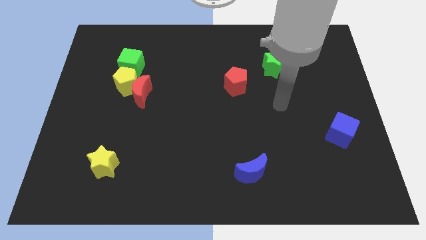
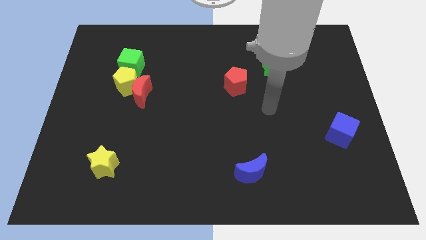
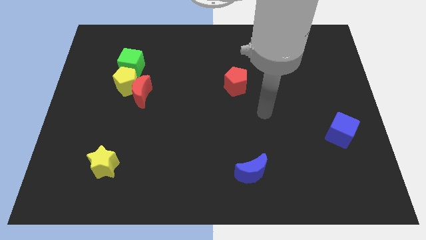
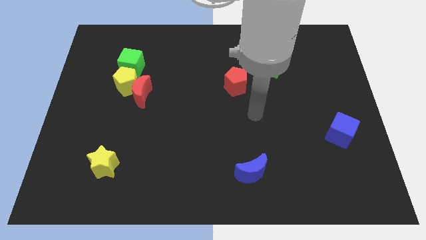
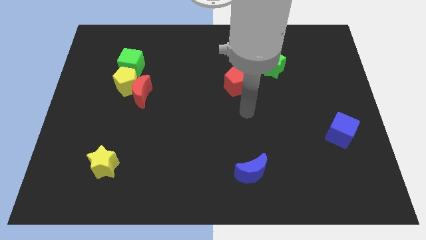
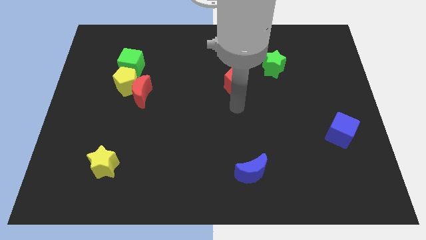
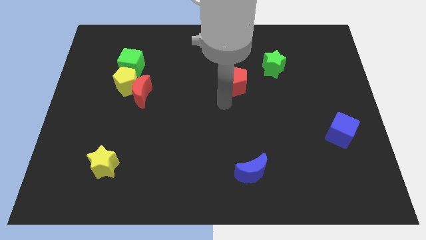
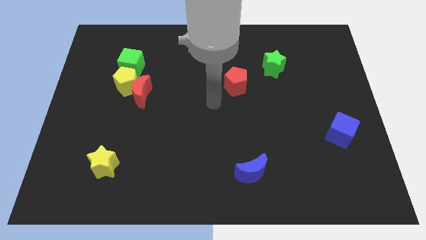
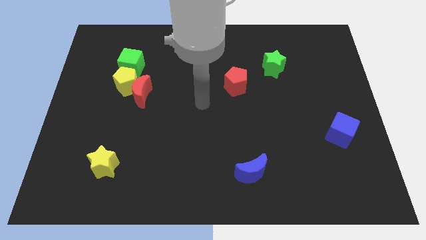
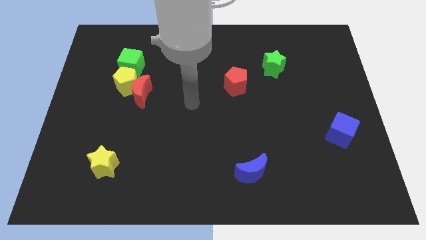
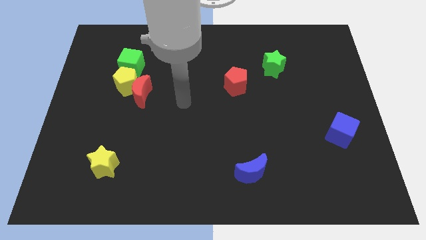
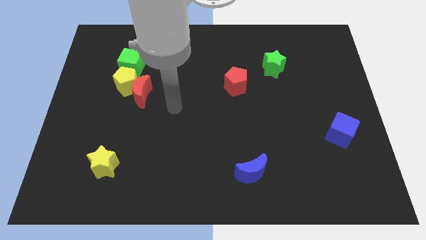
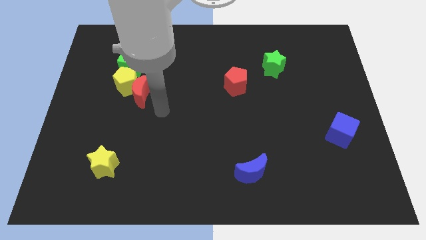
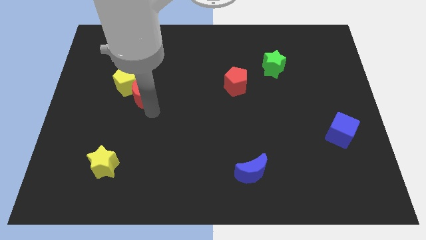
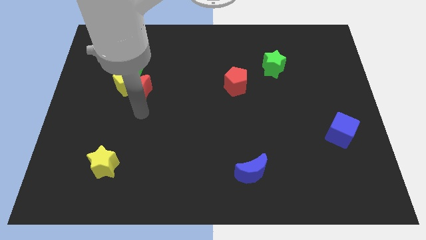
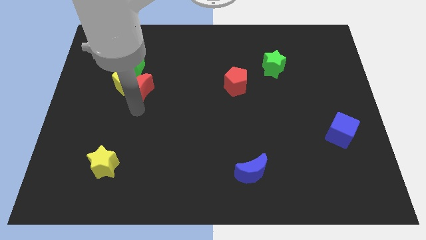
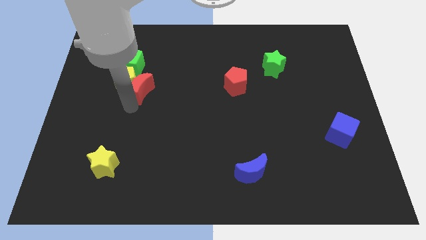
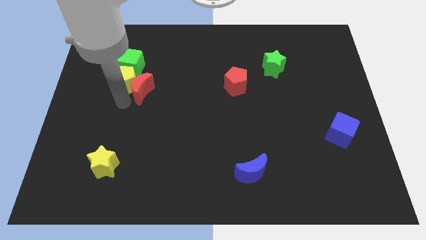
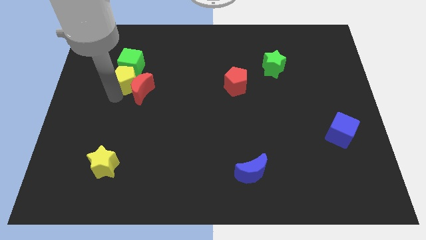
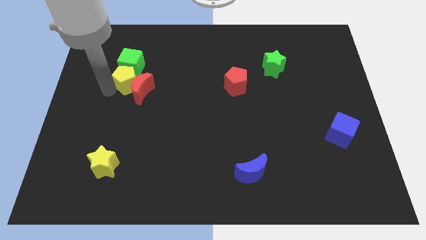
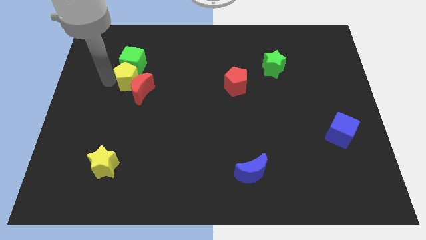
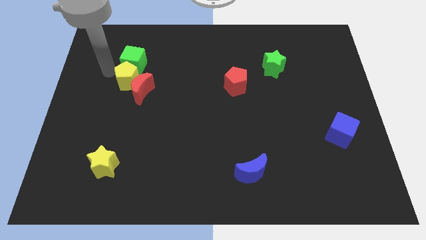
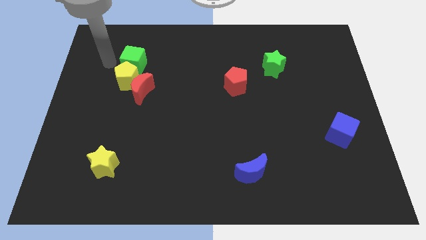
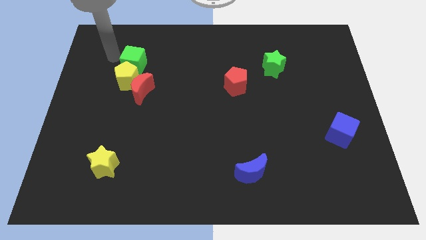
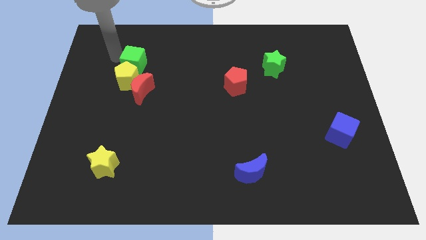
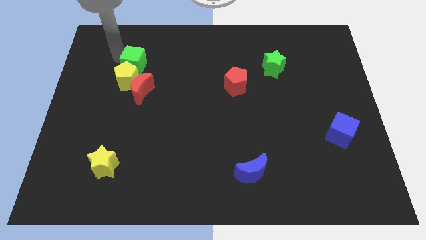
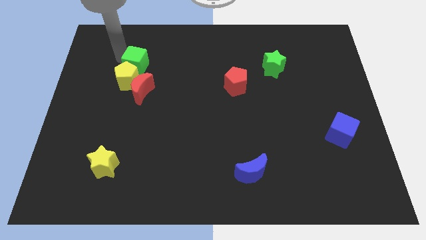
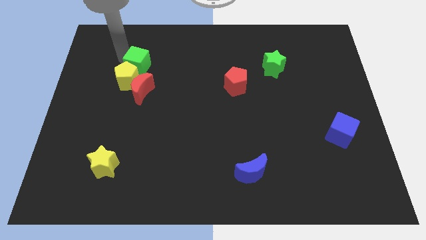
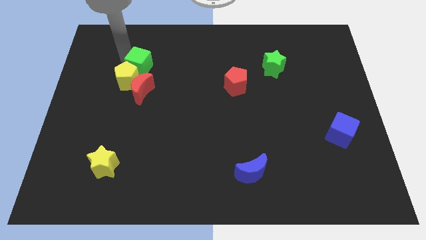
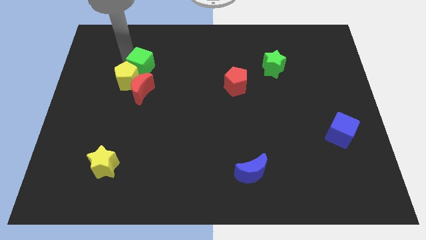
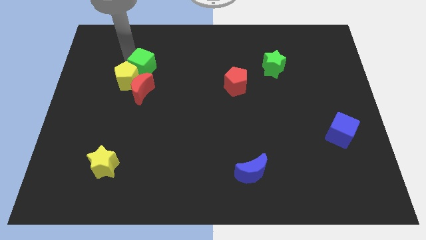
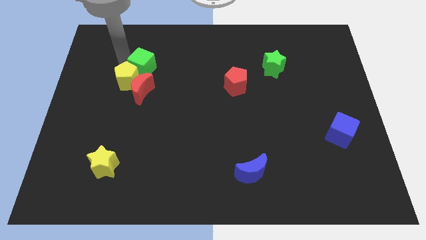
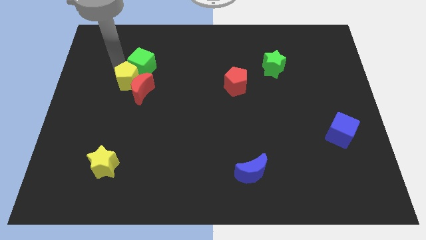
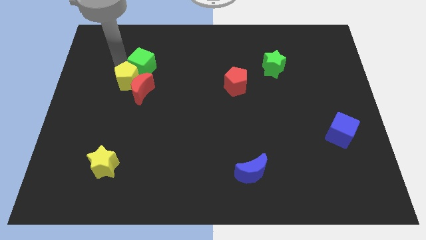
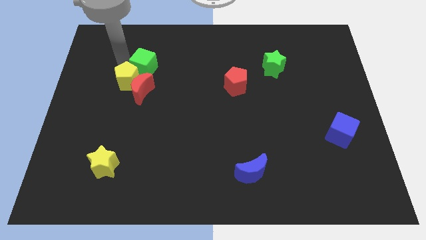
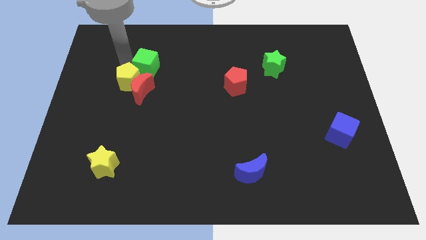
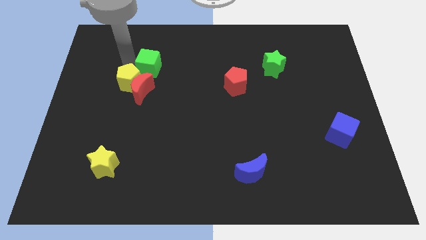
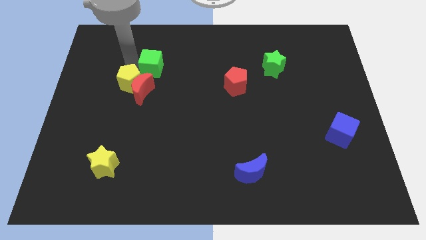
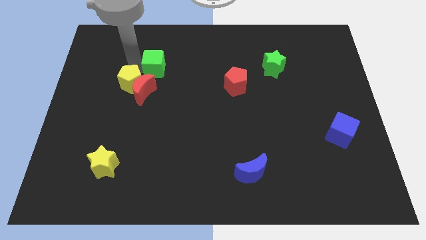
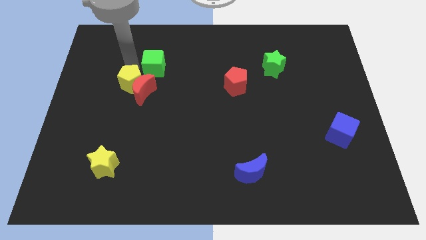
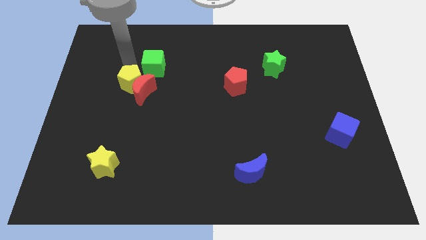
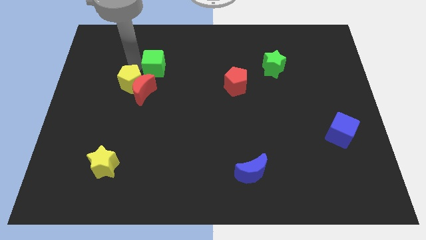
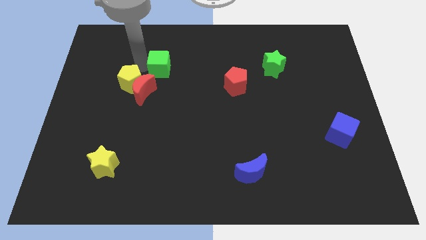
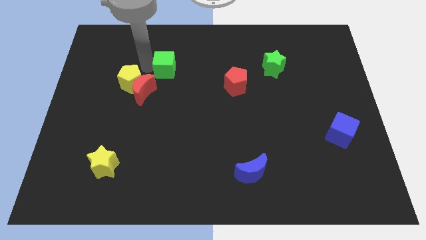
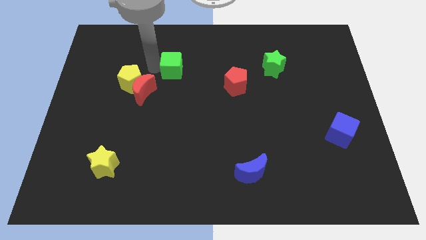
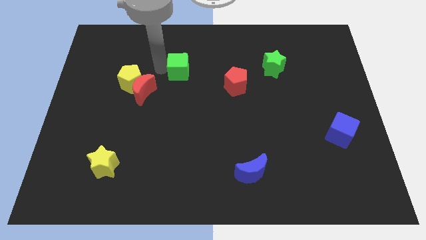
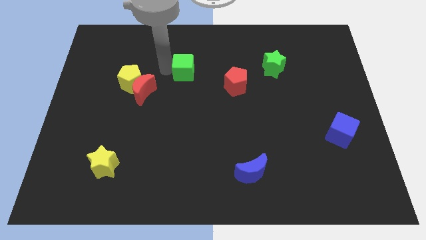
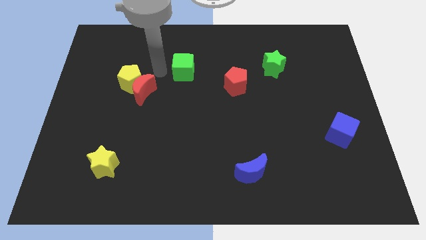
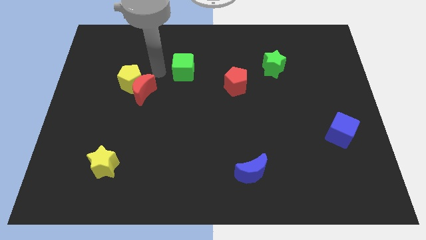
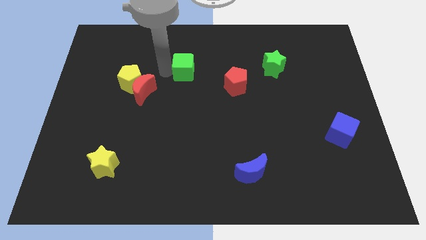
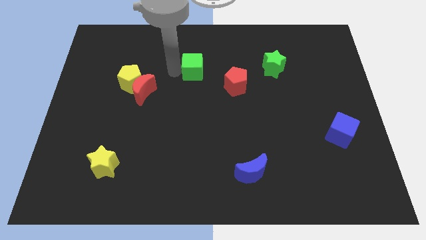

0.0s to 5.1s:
put the green cube to the top left side of the red pentagon

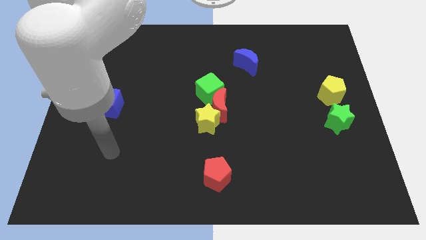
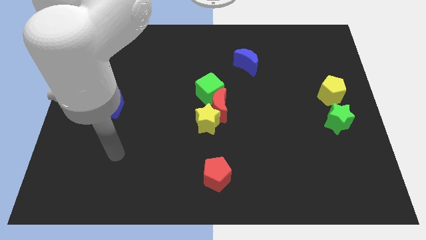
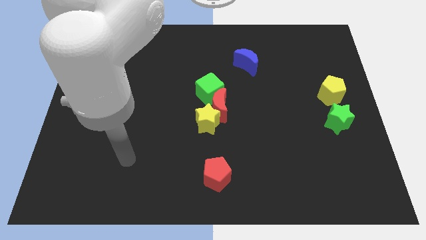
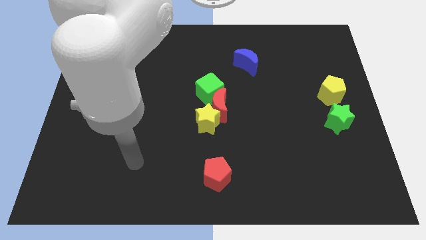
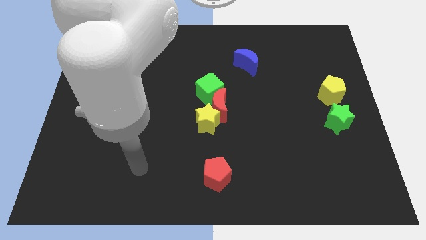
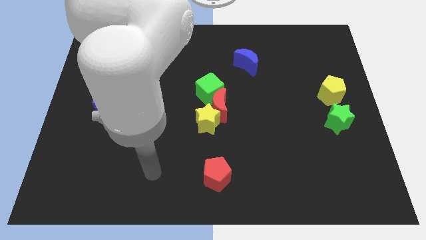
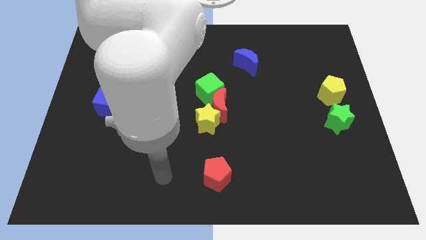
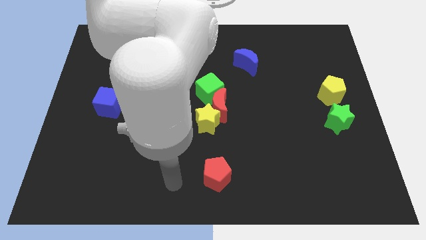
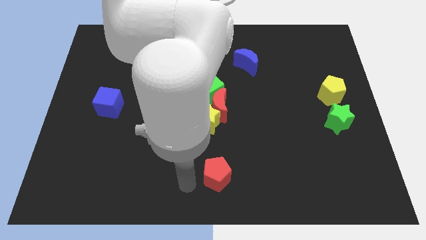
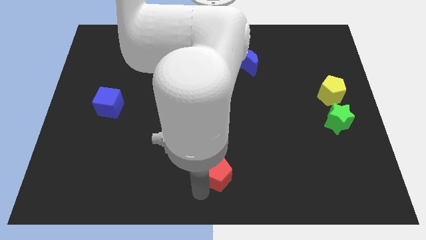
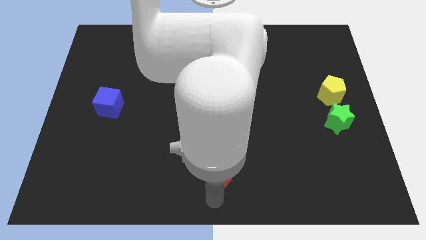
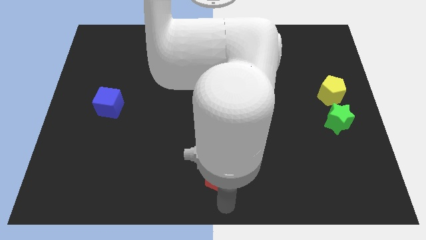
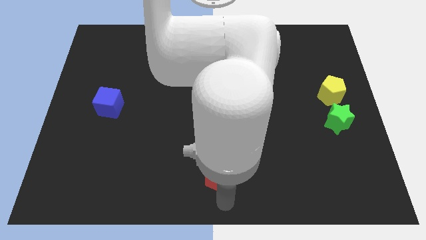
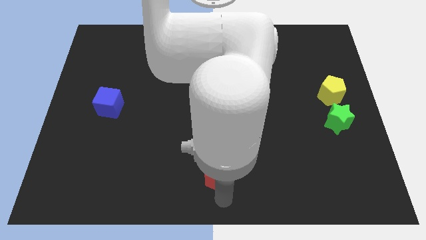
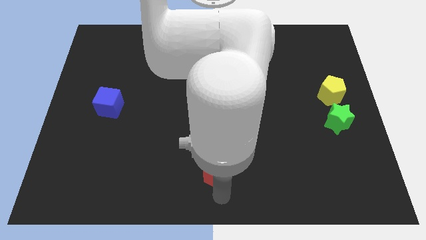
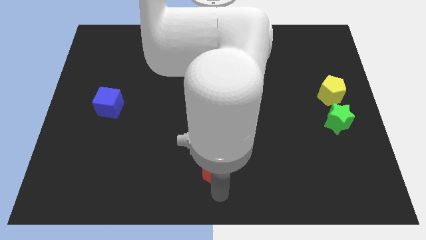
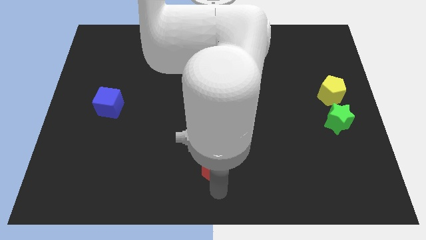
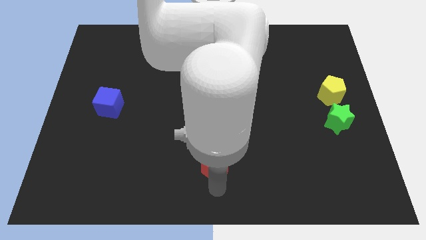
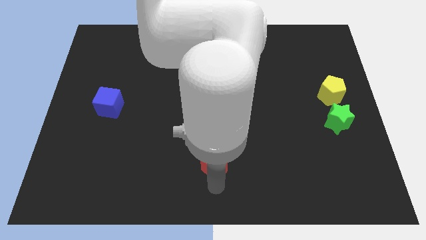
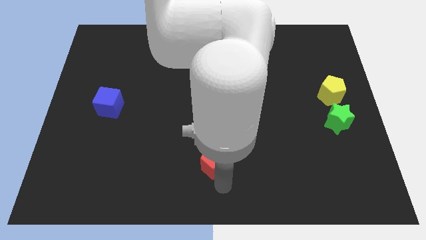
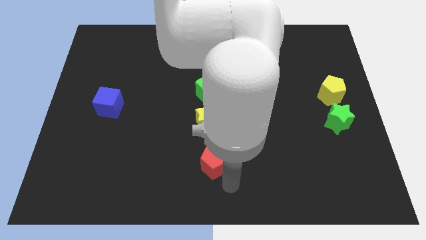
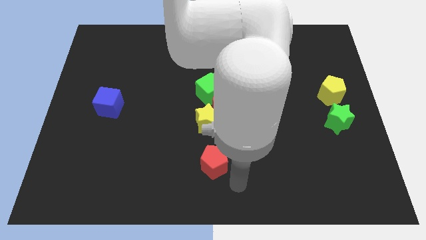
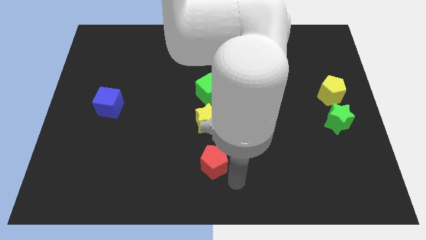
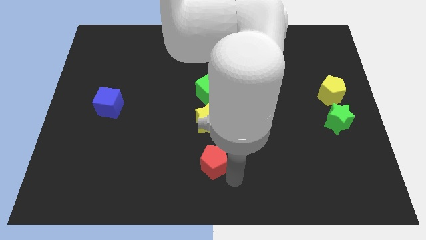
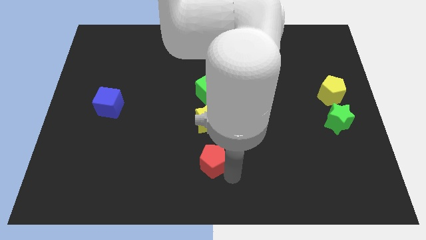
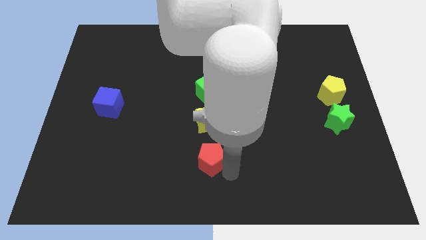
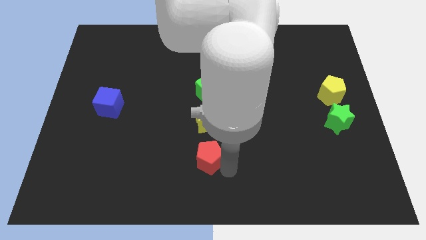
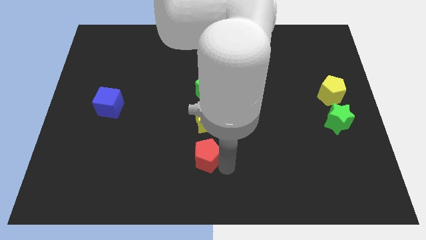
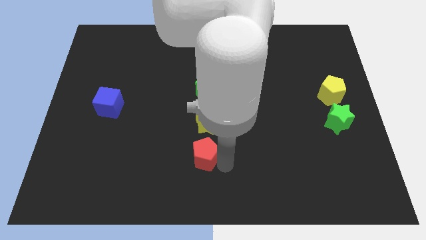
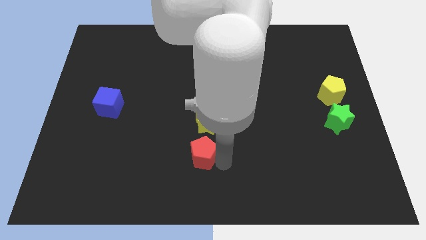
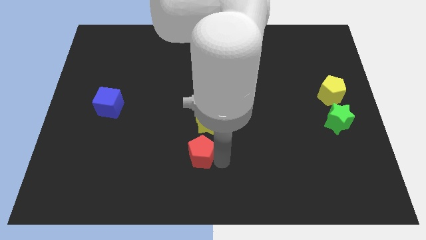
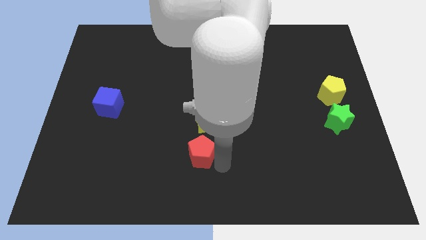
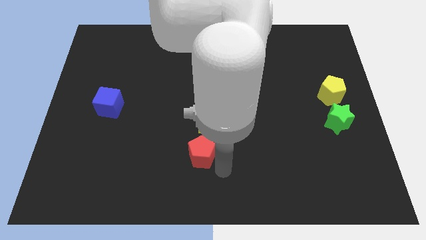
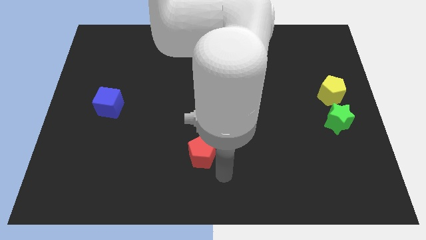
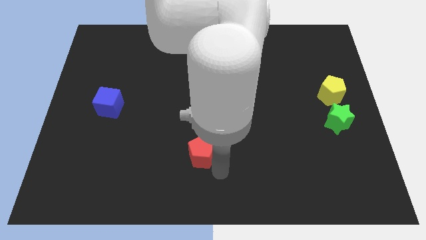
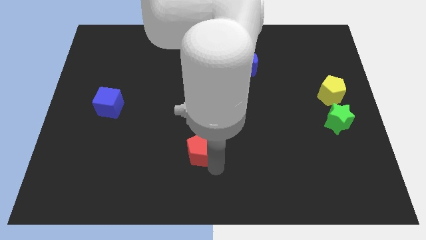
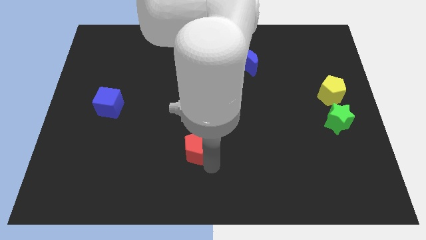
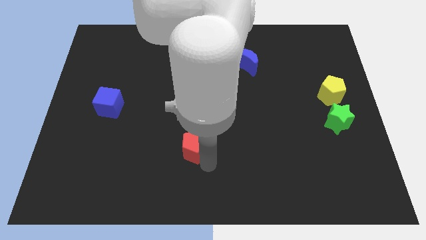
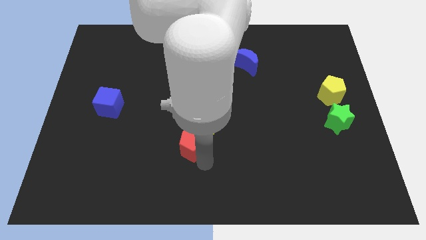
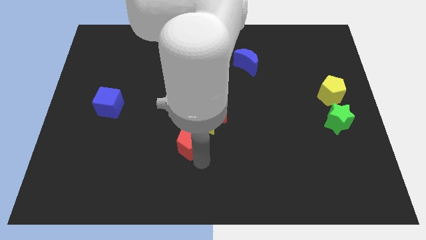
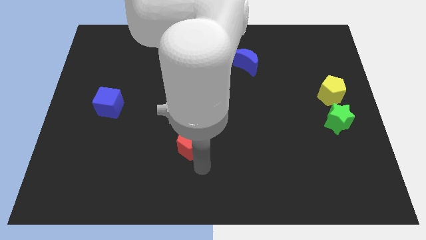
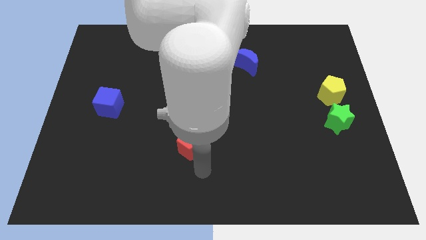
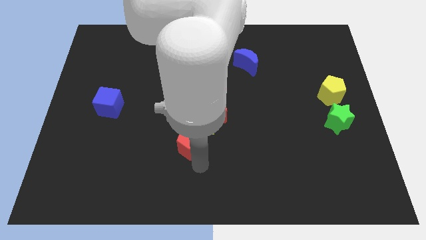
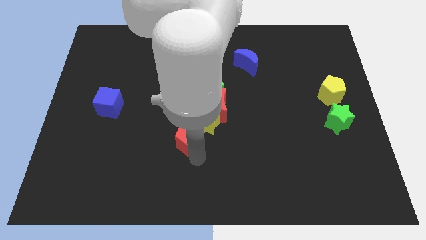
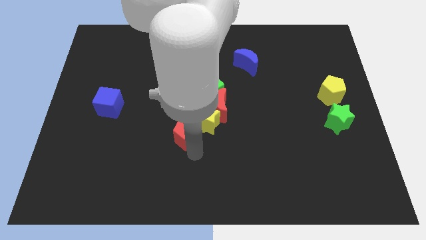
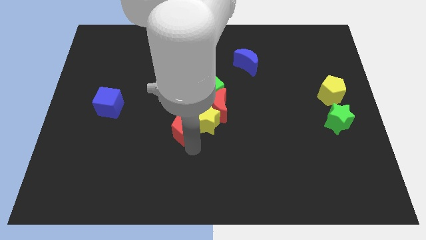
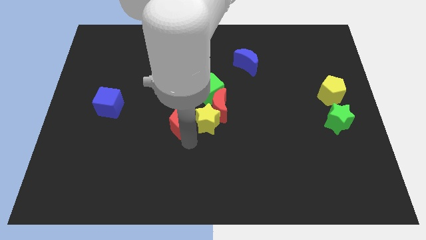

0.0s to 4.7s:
move the red pentagon to the bottom left side of the green cube
